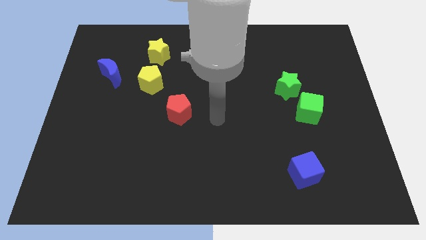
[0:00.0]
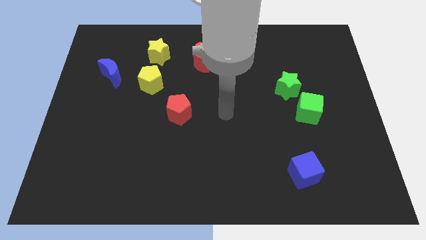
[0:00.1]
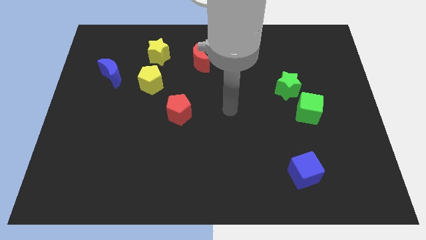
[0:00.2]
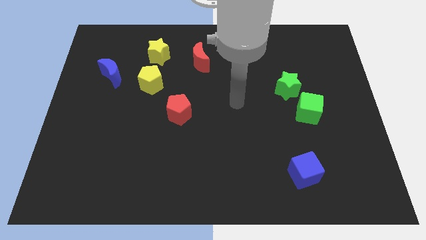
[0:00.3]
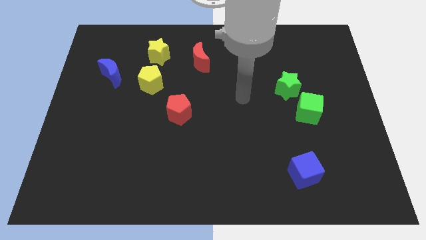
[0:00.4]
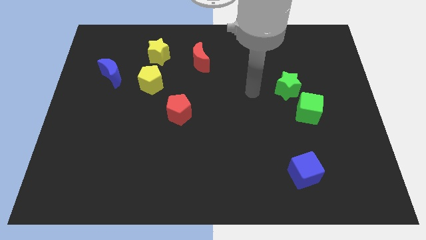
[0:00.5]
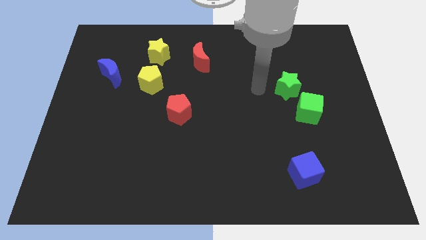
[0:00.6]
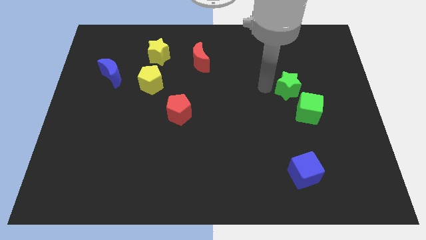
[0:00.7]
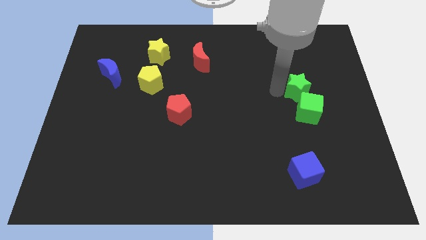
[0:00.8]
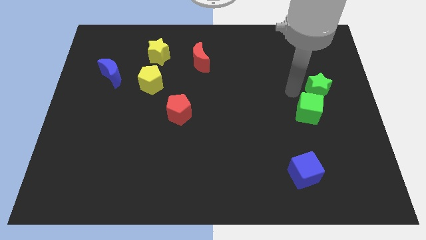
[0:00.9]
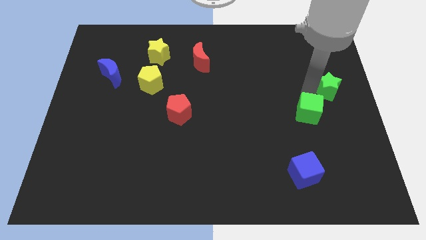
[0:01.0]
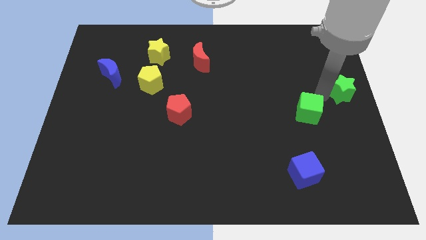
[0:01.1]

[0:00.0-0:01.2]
separate the green cube from the green star

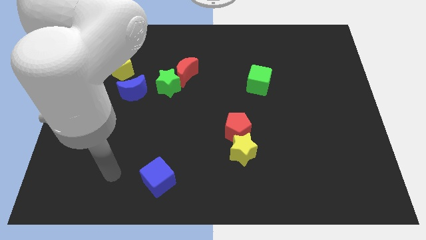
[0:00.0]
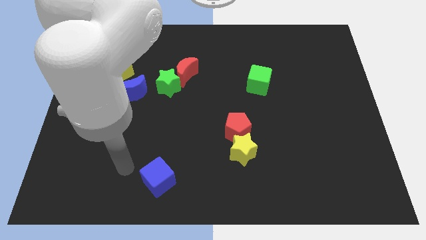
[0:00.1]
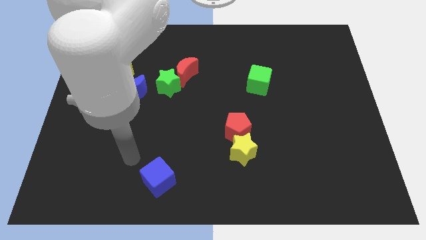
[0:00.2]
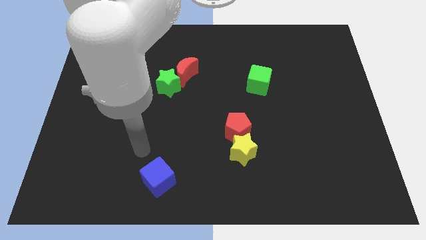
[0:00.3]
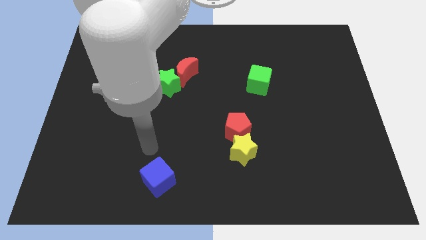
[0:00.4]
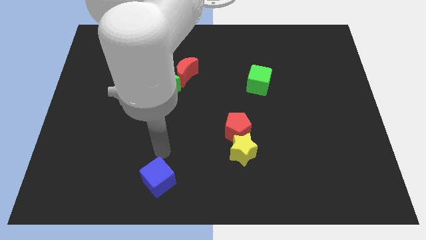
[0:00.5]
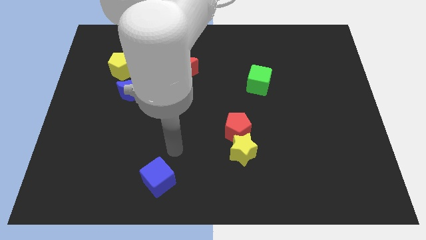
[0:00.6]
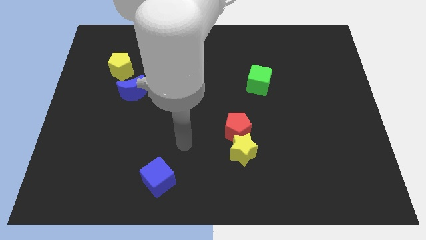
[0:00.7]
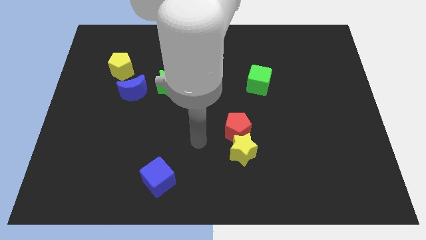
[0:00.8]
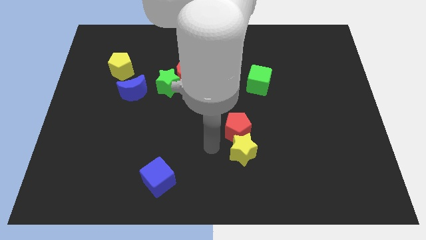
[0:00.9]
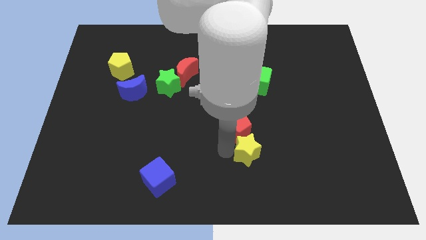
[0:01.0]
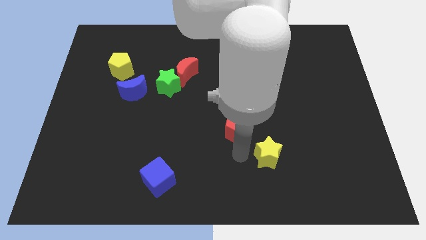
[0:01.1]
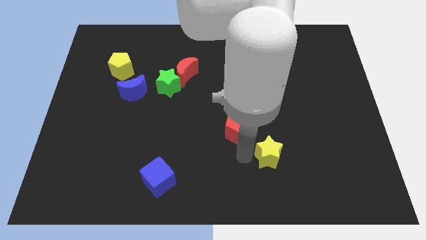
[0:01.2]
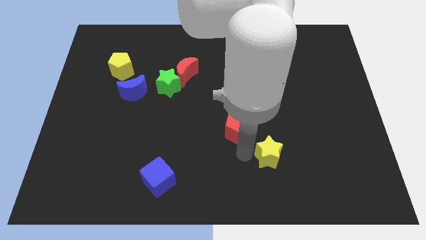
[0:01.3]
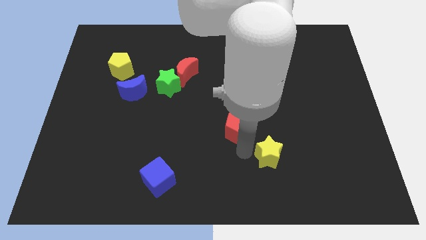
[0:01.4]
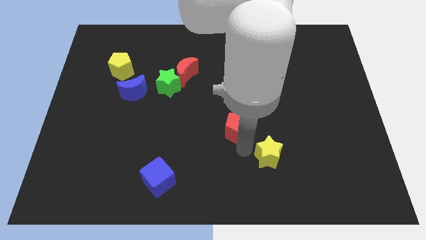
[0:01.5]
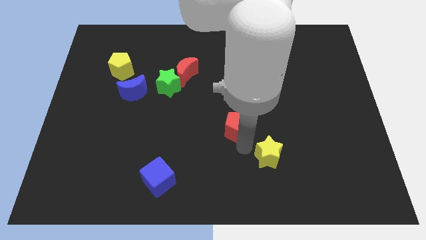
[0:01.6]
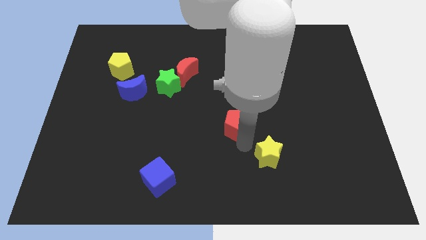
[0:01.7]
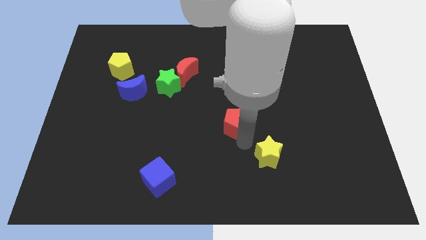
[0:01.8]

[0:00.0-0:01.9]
move the red pentagon away from the yellow star

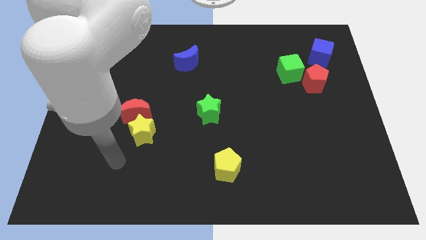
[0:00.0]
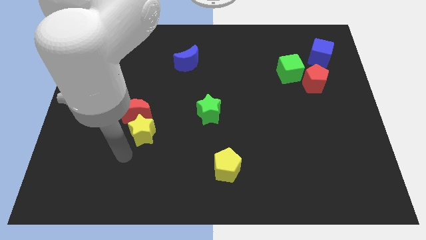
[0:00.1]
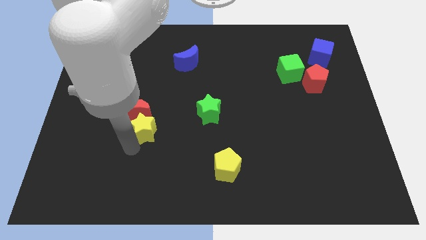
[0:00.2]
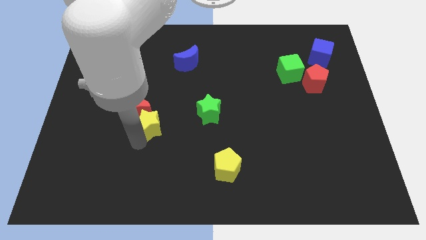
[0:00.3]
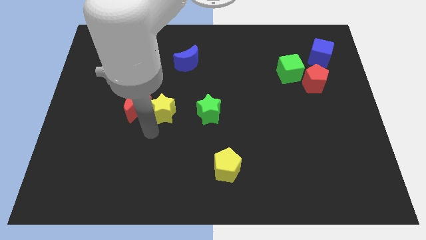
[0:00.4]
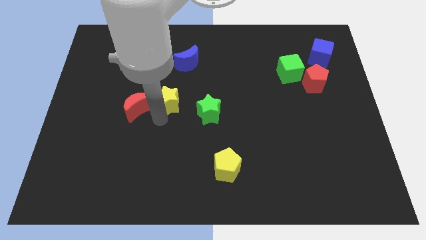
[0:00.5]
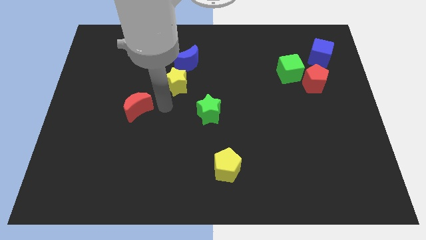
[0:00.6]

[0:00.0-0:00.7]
separate the red moon from the yellow star

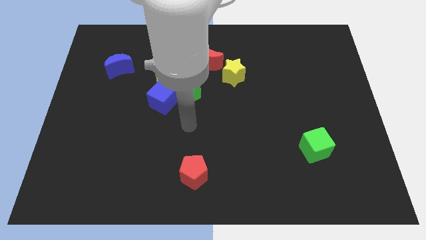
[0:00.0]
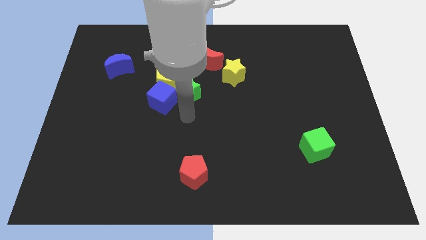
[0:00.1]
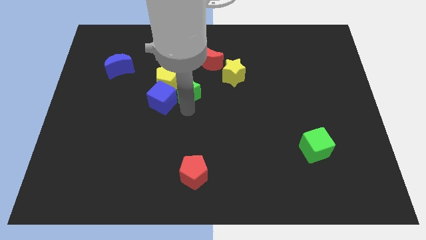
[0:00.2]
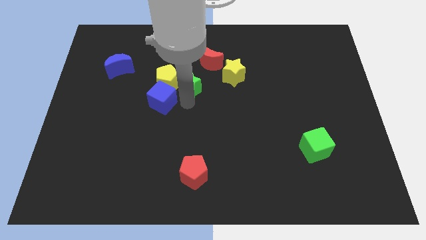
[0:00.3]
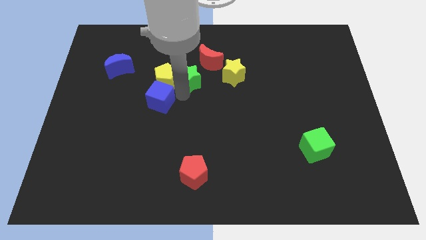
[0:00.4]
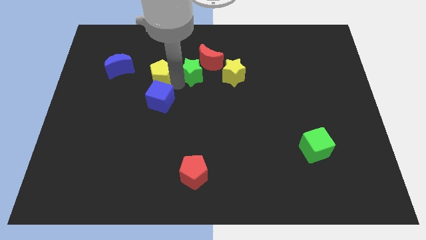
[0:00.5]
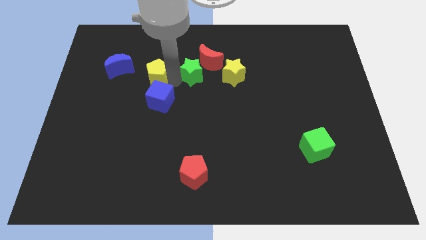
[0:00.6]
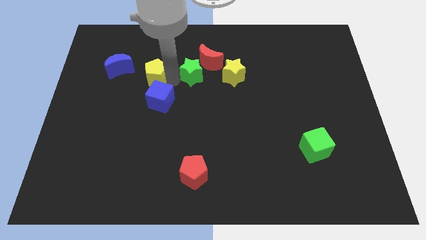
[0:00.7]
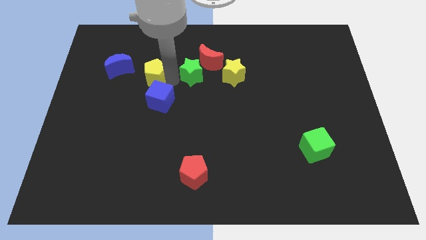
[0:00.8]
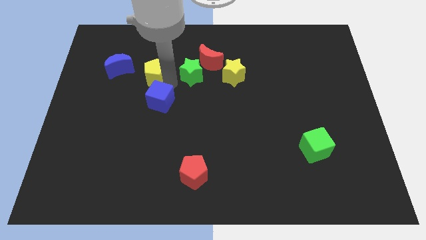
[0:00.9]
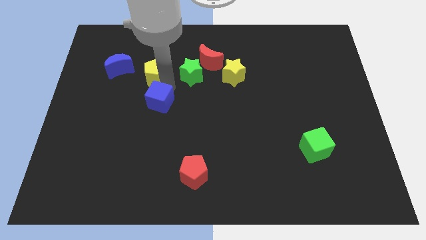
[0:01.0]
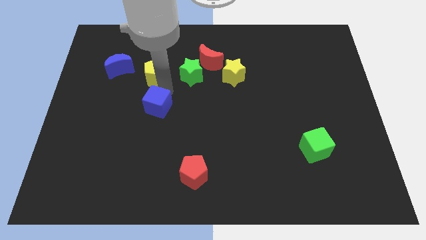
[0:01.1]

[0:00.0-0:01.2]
move the blue cube away from the yellow pentagon and green star

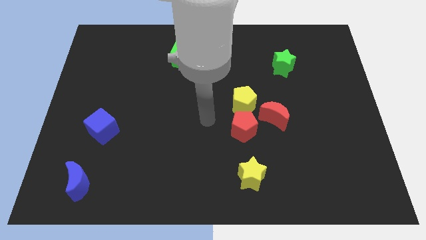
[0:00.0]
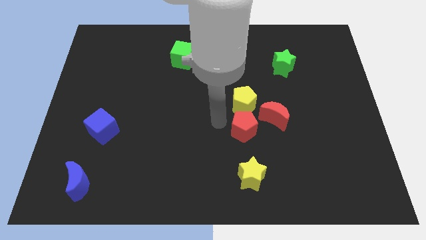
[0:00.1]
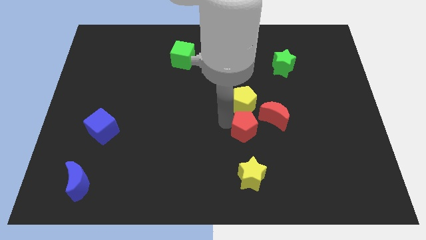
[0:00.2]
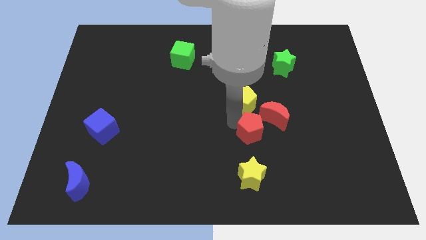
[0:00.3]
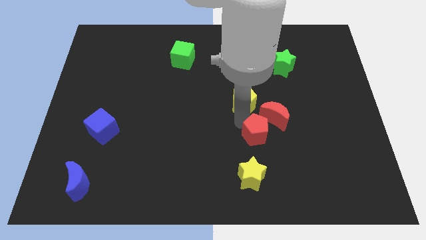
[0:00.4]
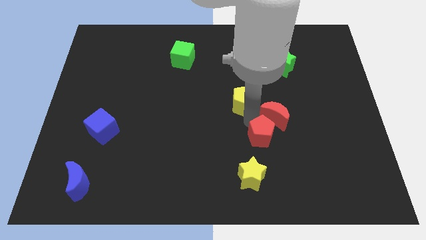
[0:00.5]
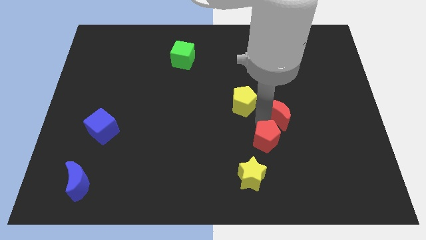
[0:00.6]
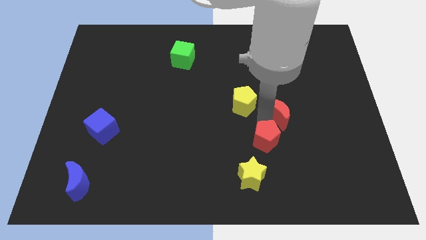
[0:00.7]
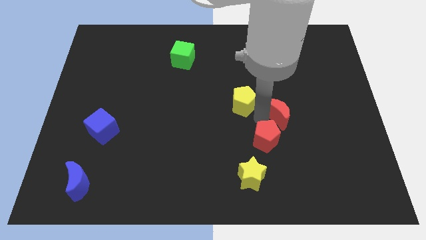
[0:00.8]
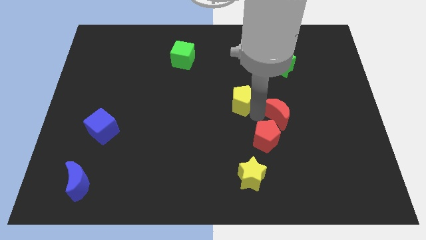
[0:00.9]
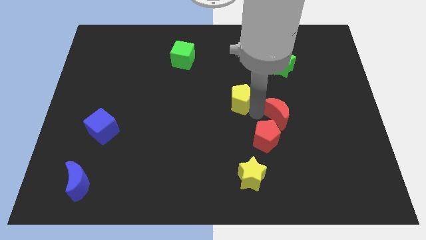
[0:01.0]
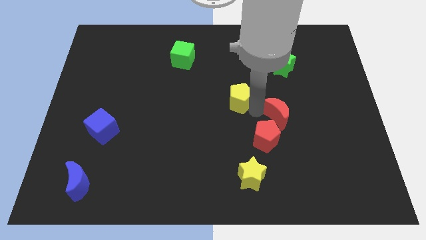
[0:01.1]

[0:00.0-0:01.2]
pull the yellow pentagon apart from the red pentagon and red moon

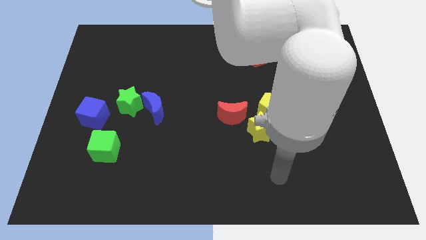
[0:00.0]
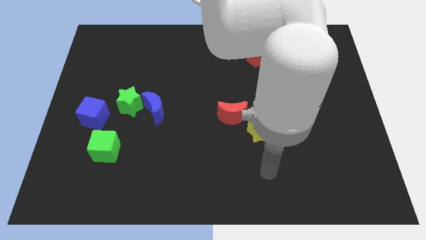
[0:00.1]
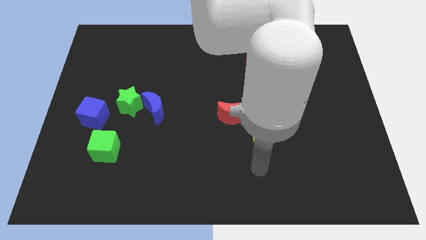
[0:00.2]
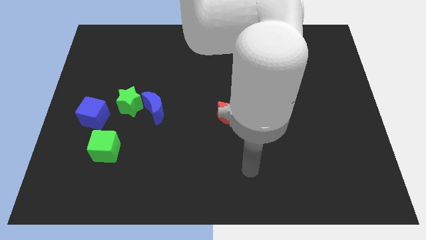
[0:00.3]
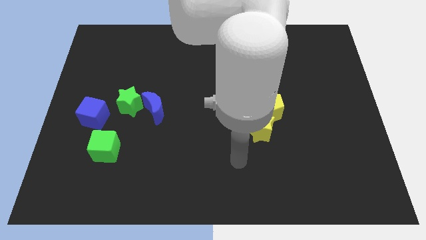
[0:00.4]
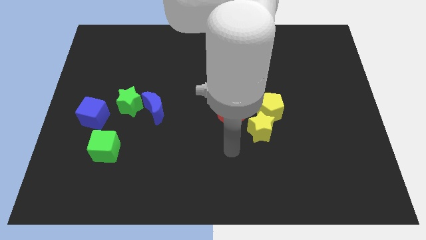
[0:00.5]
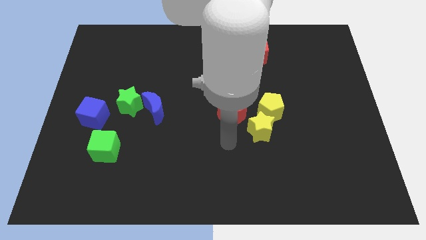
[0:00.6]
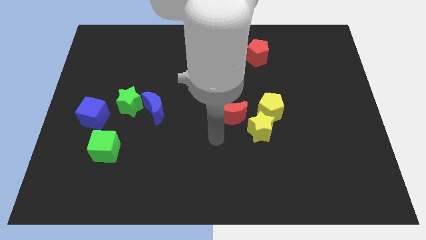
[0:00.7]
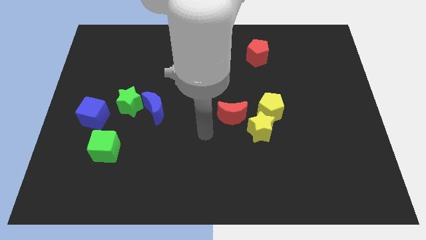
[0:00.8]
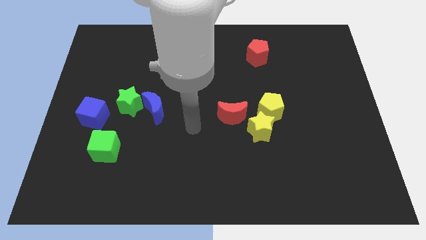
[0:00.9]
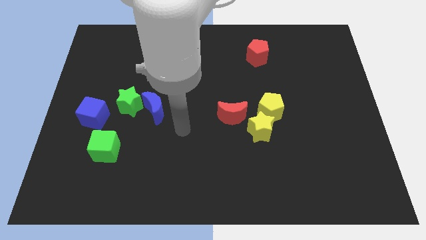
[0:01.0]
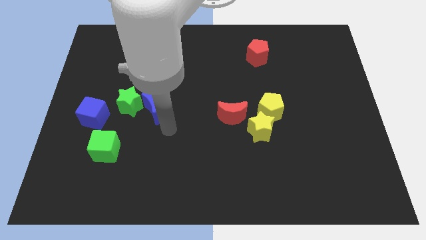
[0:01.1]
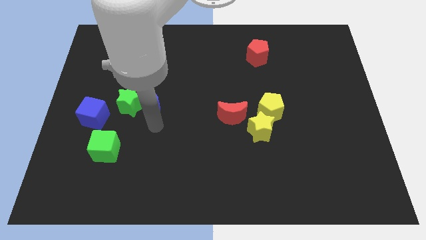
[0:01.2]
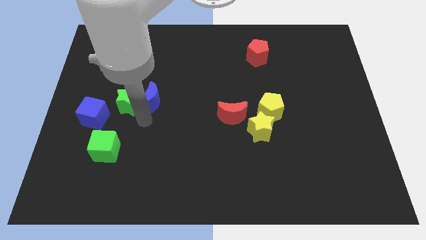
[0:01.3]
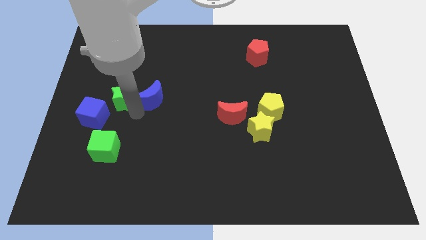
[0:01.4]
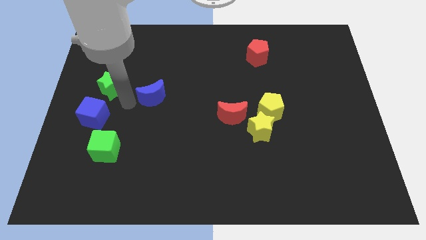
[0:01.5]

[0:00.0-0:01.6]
move the blue moon away from the green star

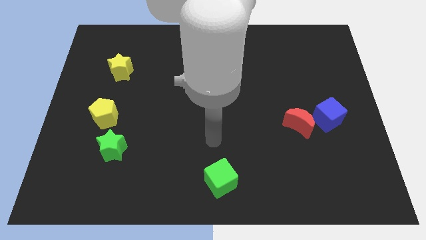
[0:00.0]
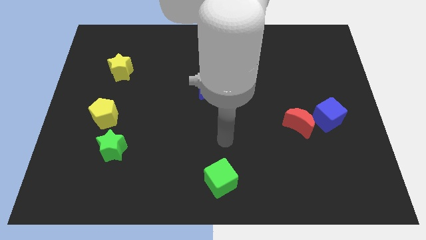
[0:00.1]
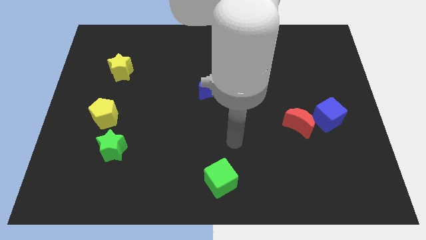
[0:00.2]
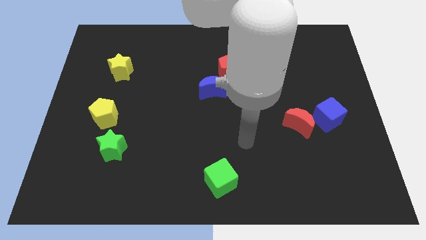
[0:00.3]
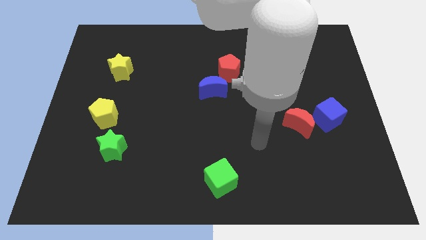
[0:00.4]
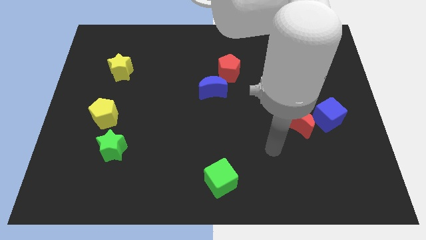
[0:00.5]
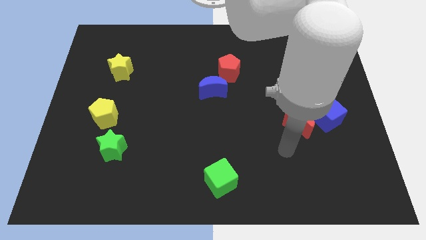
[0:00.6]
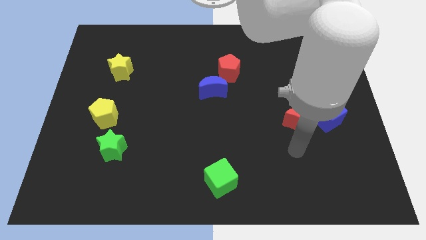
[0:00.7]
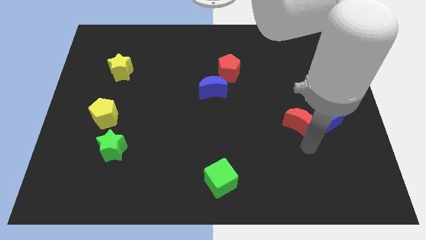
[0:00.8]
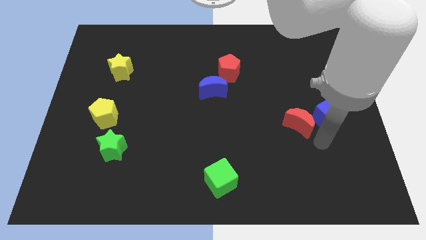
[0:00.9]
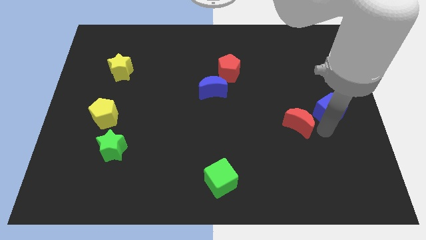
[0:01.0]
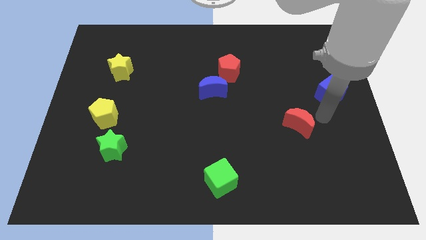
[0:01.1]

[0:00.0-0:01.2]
separate the red moon from the blue cube

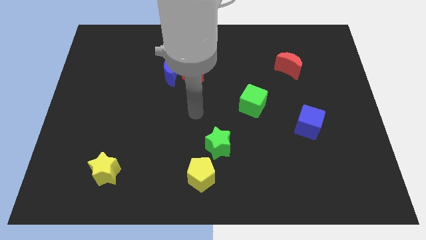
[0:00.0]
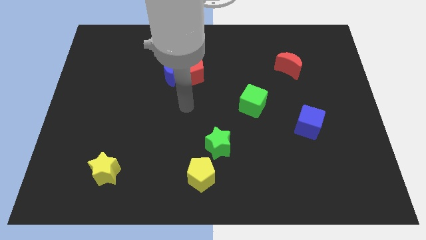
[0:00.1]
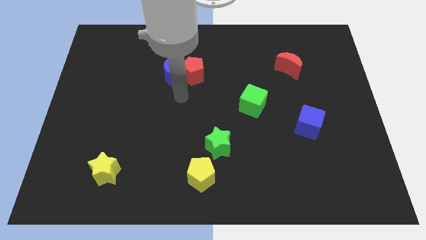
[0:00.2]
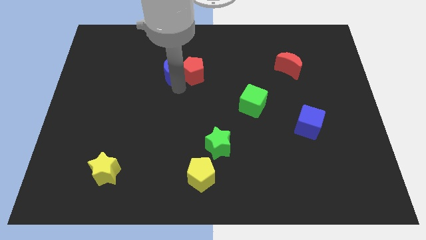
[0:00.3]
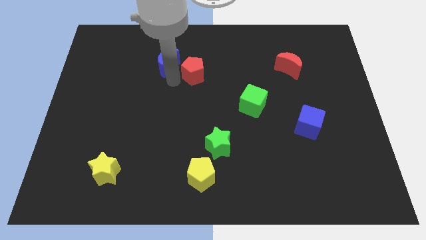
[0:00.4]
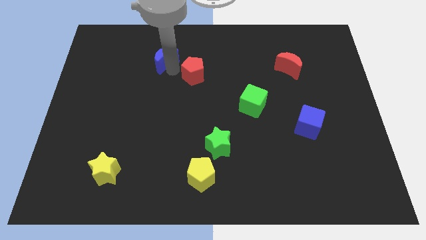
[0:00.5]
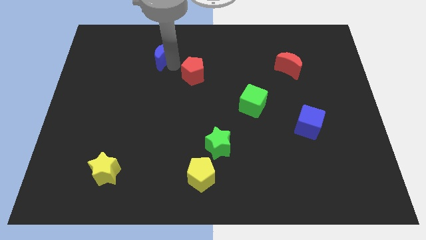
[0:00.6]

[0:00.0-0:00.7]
separate the red pentagon from the blue moon
